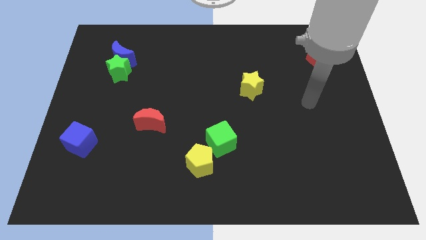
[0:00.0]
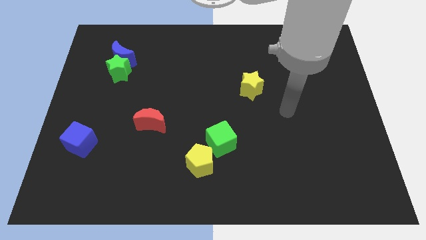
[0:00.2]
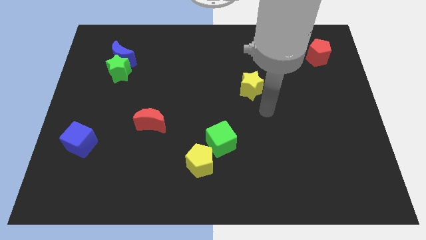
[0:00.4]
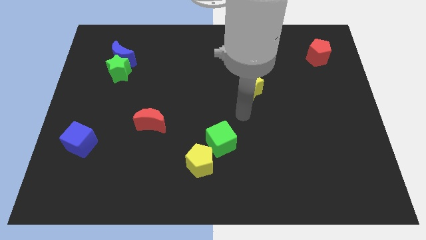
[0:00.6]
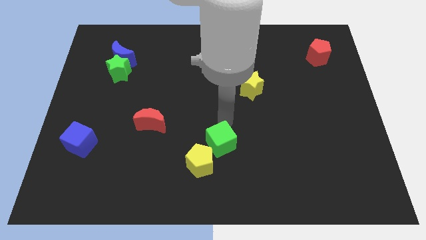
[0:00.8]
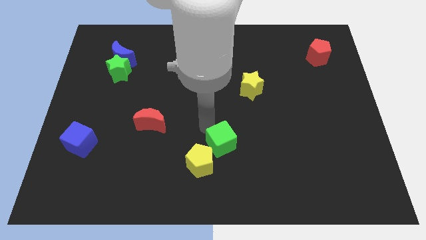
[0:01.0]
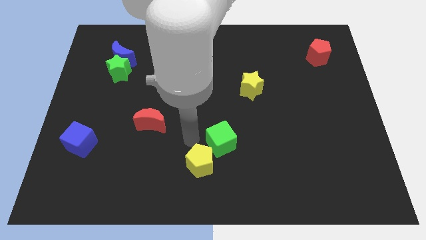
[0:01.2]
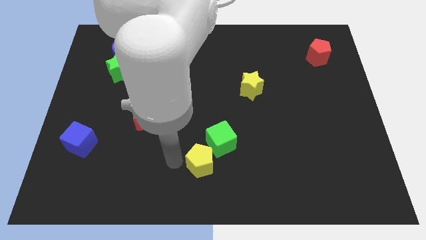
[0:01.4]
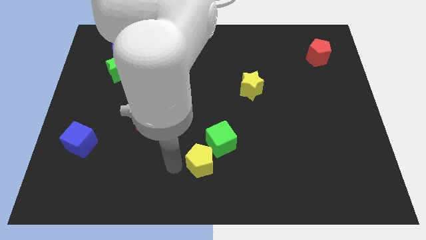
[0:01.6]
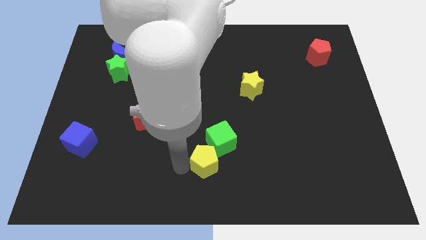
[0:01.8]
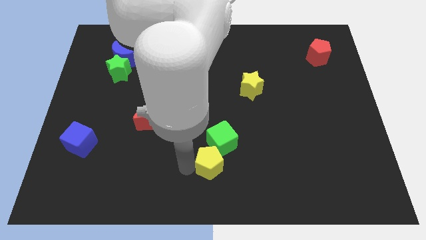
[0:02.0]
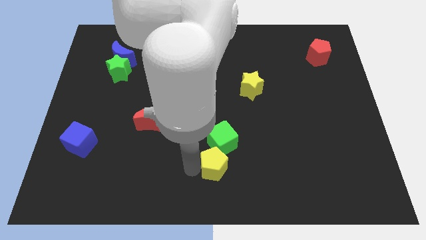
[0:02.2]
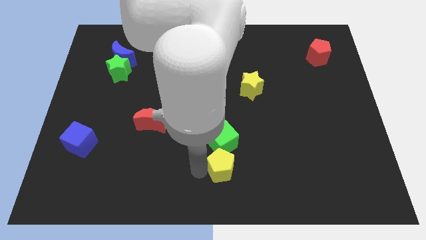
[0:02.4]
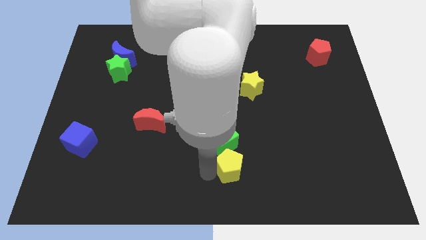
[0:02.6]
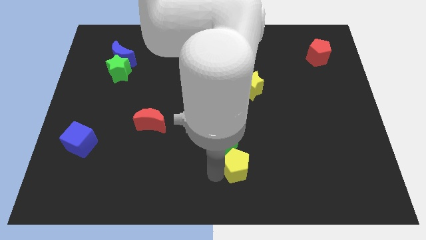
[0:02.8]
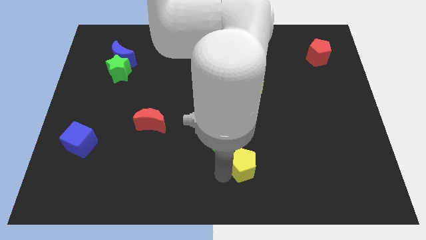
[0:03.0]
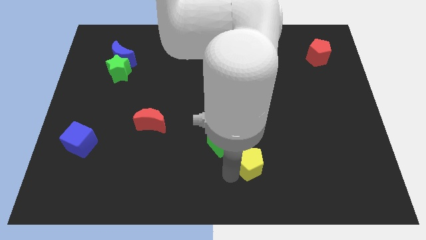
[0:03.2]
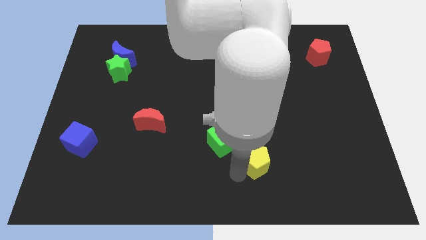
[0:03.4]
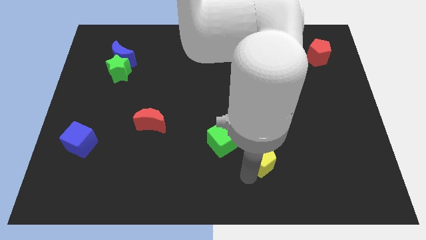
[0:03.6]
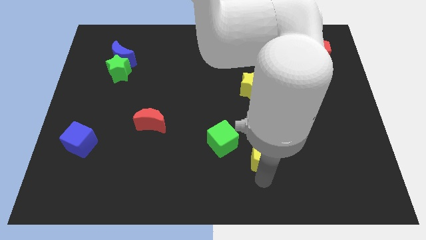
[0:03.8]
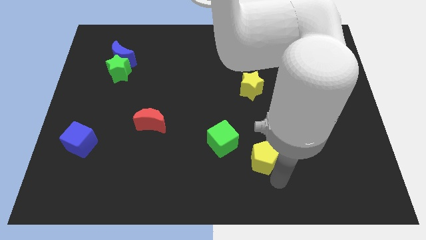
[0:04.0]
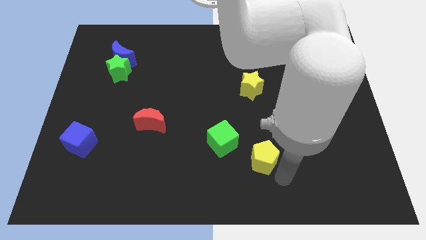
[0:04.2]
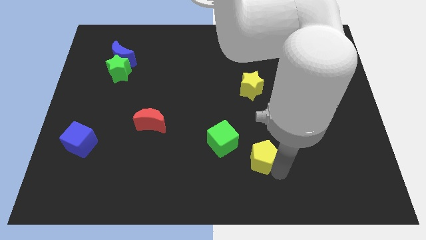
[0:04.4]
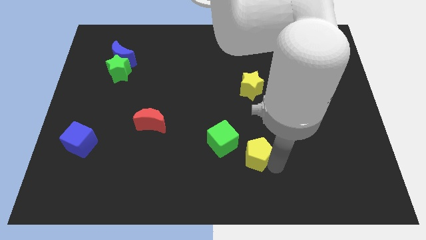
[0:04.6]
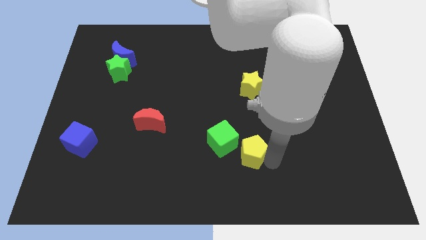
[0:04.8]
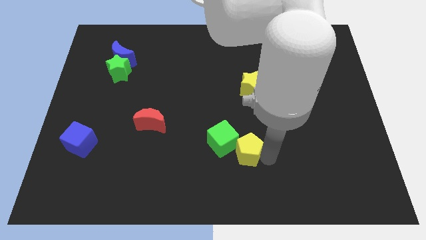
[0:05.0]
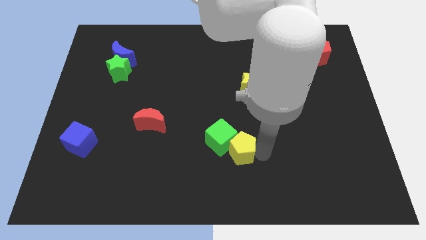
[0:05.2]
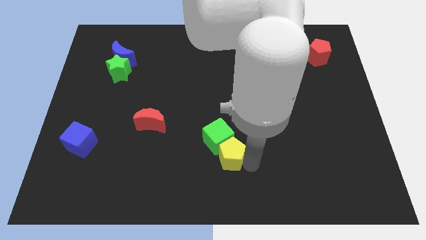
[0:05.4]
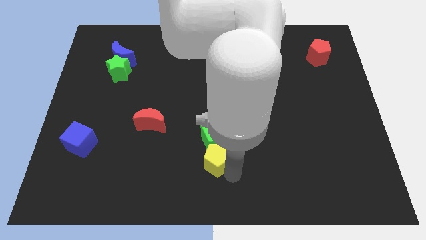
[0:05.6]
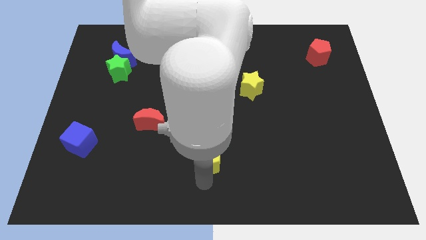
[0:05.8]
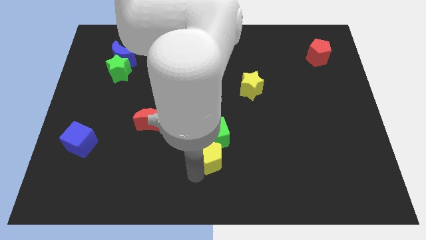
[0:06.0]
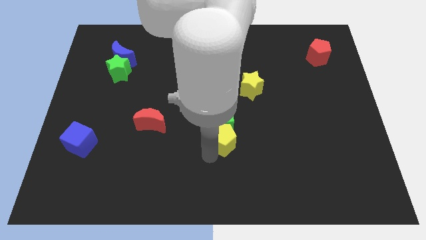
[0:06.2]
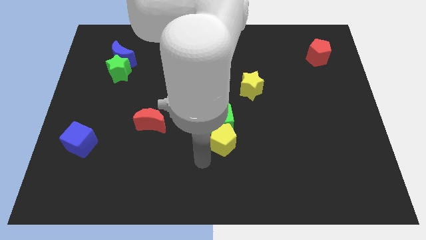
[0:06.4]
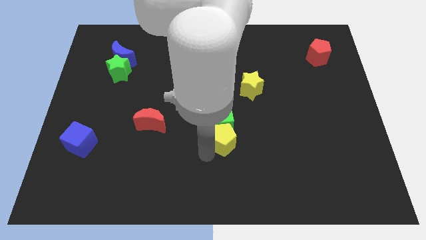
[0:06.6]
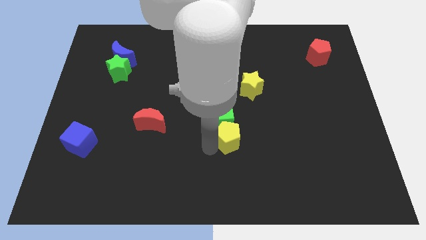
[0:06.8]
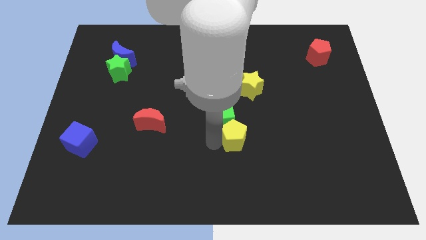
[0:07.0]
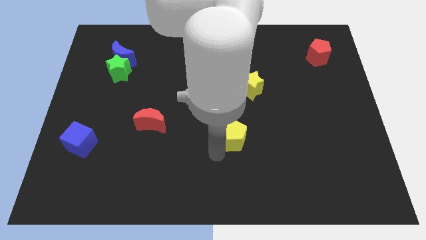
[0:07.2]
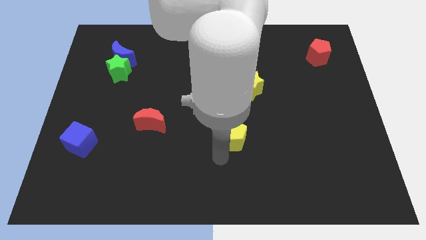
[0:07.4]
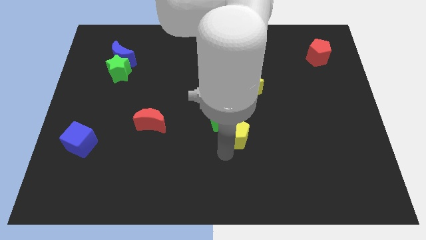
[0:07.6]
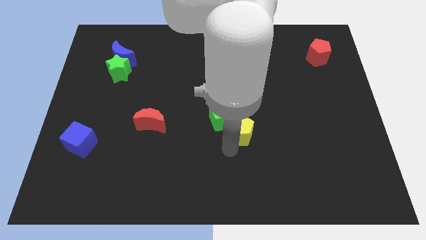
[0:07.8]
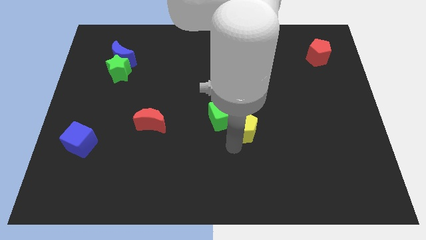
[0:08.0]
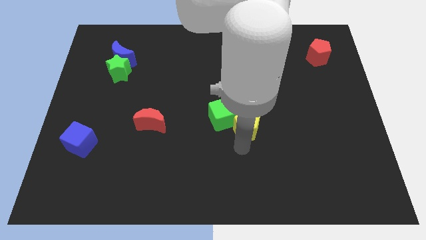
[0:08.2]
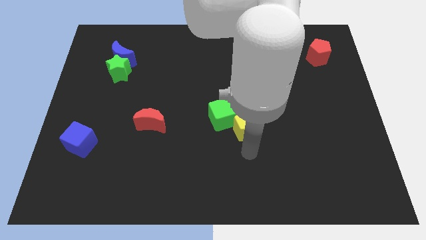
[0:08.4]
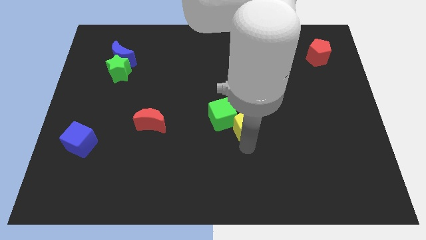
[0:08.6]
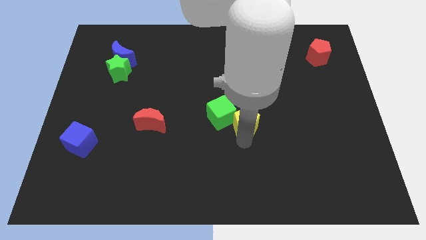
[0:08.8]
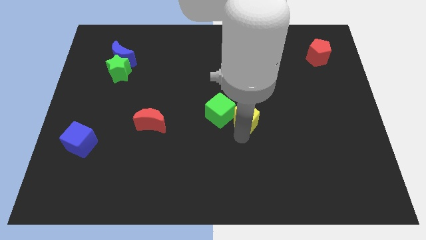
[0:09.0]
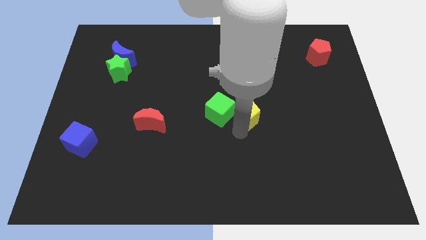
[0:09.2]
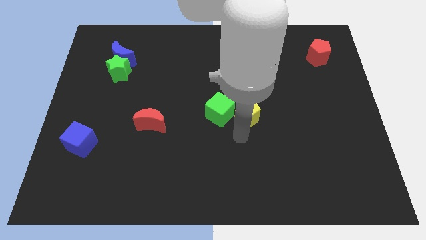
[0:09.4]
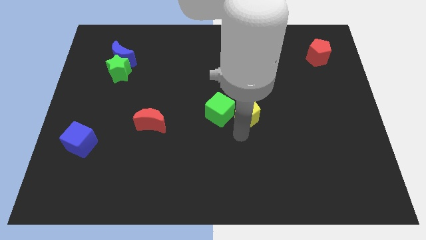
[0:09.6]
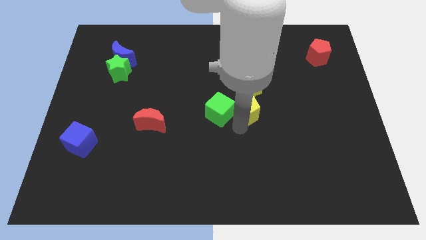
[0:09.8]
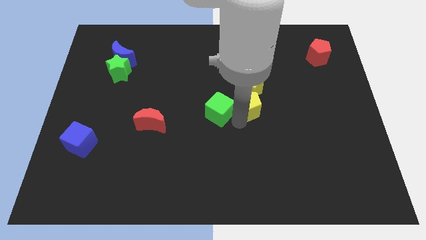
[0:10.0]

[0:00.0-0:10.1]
push the yellow pentagon next to the yellow star
